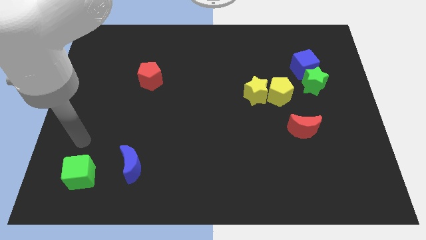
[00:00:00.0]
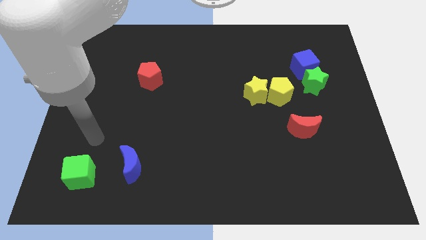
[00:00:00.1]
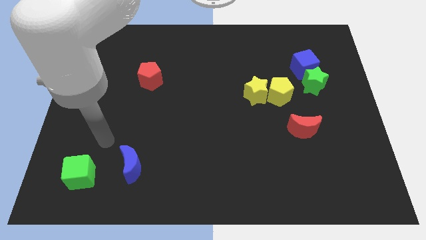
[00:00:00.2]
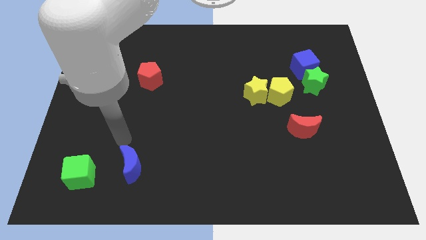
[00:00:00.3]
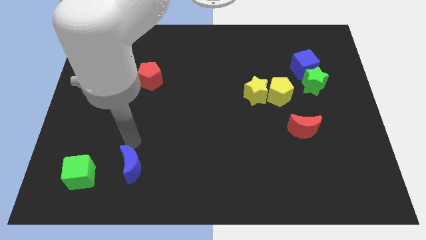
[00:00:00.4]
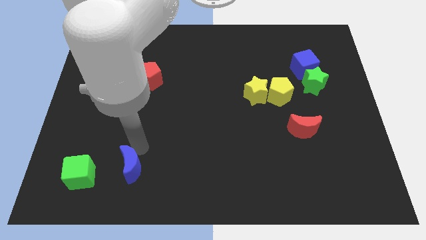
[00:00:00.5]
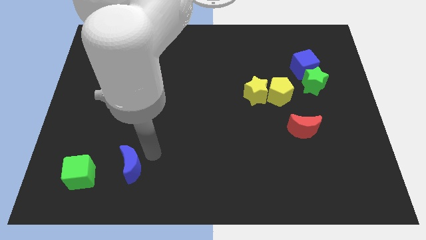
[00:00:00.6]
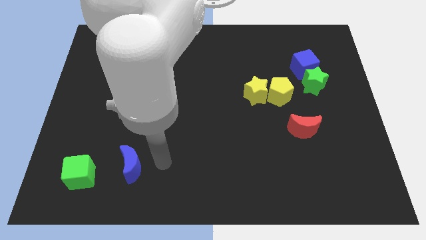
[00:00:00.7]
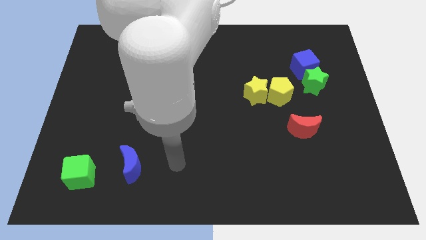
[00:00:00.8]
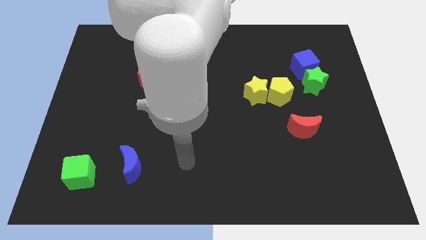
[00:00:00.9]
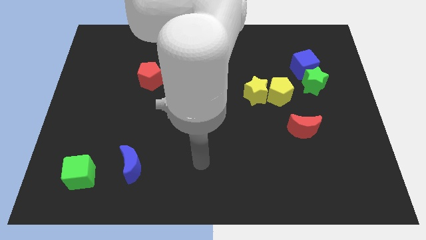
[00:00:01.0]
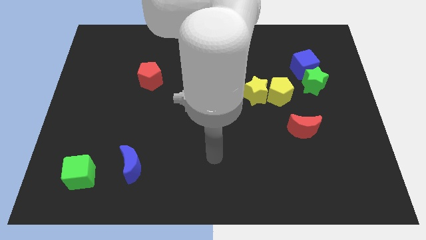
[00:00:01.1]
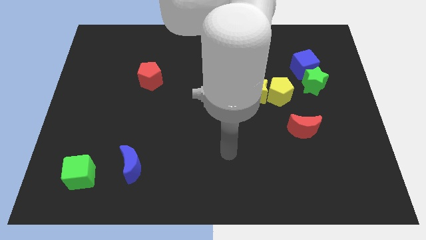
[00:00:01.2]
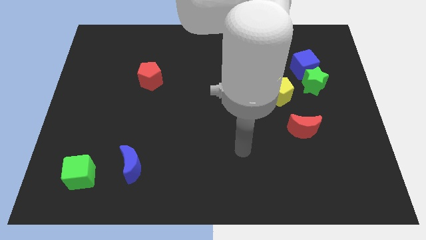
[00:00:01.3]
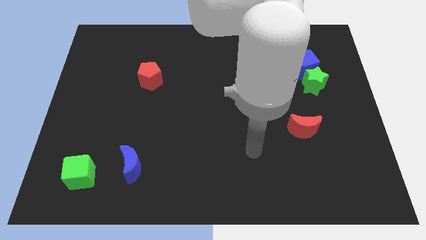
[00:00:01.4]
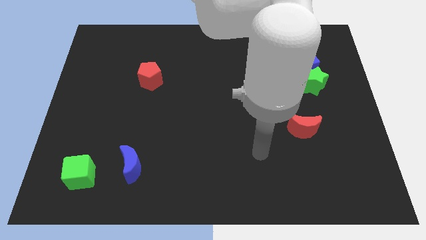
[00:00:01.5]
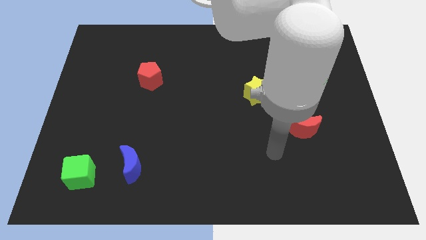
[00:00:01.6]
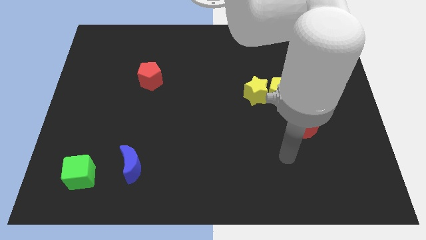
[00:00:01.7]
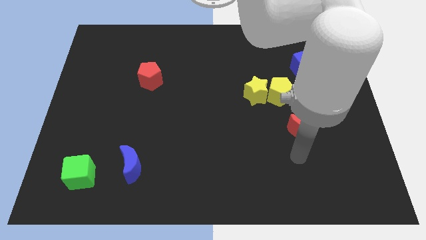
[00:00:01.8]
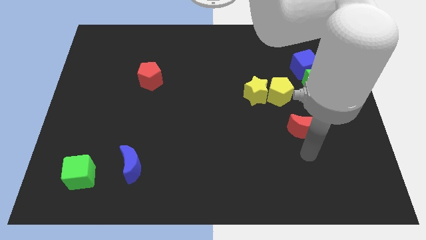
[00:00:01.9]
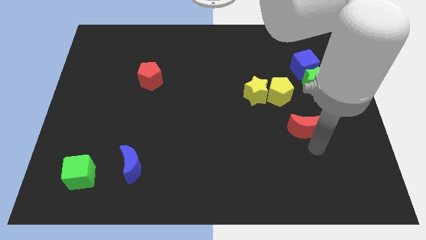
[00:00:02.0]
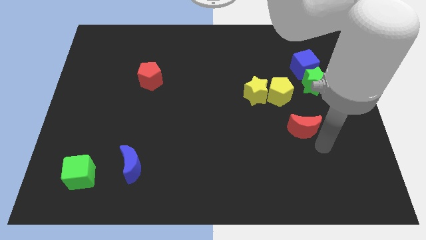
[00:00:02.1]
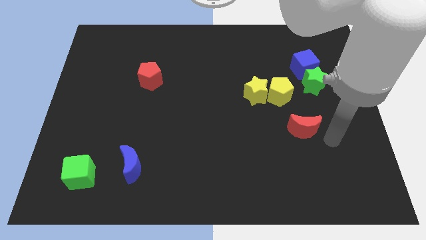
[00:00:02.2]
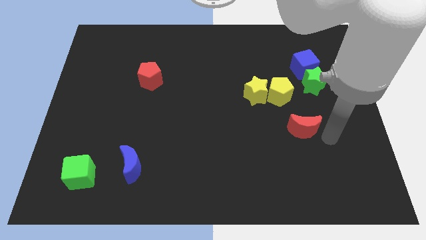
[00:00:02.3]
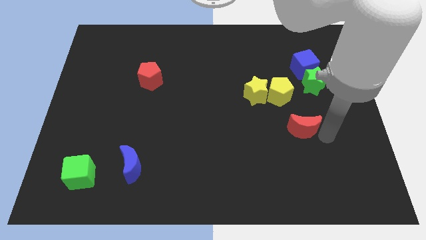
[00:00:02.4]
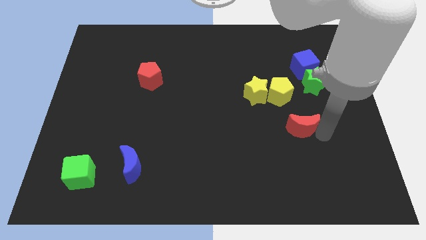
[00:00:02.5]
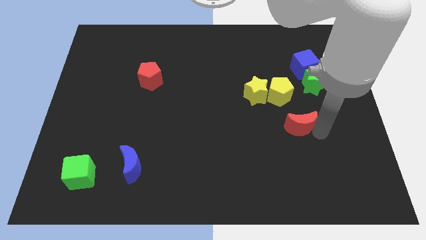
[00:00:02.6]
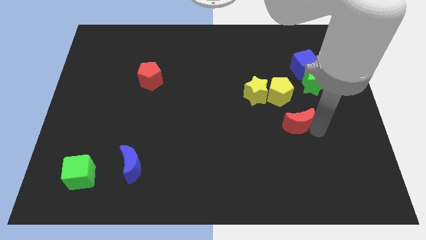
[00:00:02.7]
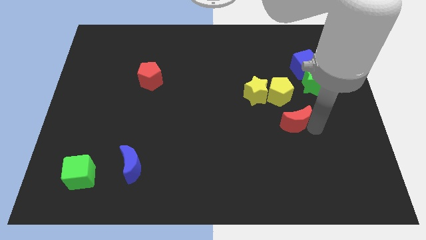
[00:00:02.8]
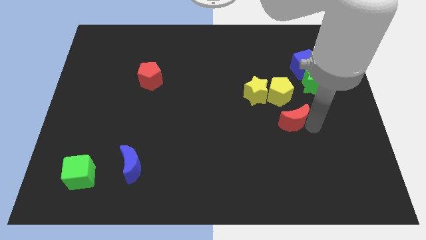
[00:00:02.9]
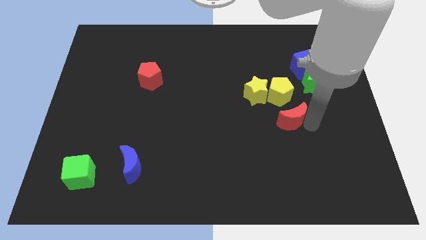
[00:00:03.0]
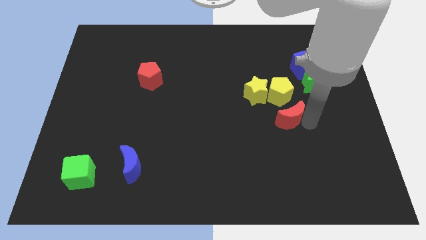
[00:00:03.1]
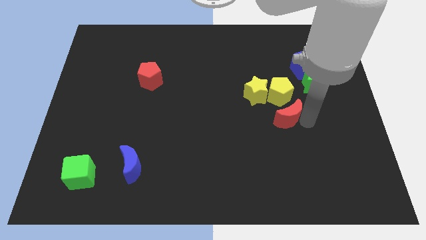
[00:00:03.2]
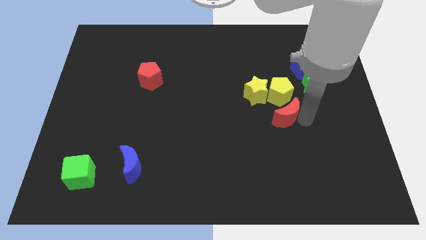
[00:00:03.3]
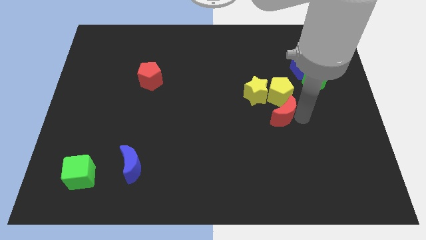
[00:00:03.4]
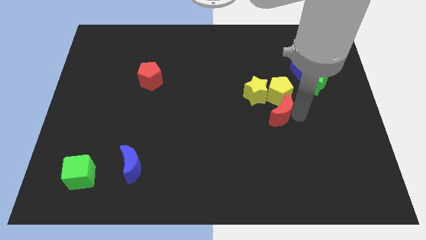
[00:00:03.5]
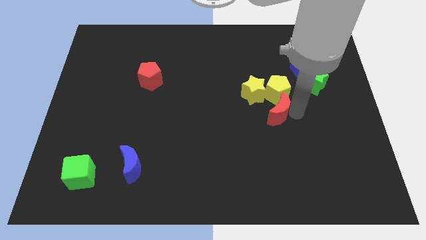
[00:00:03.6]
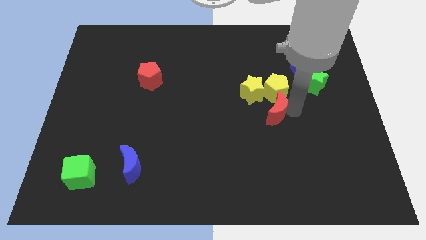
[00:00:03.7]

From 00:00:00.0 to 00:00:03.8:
move the red moon upwards and then left slightly

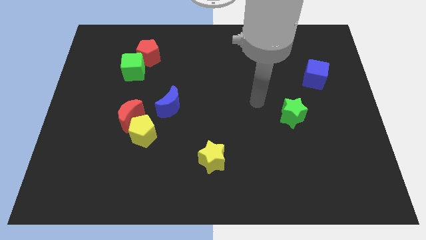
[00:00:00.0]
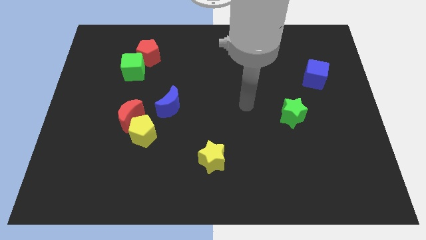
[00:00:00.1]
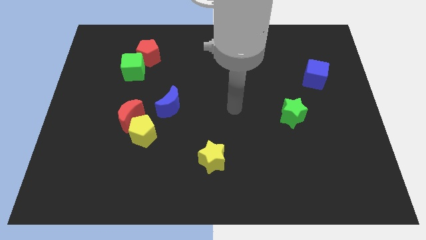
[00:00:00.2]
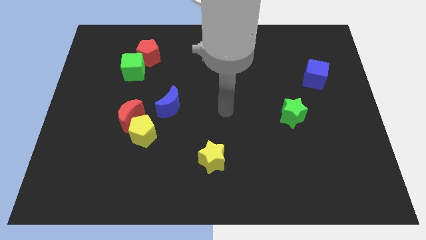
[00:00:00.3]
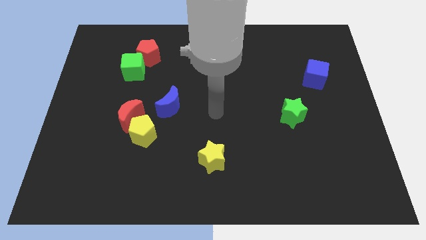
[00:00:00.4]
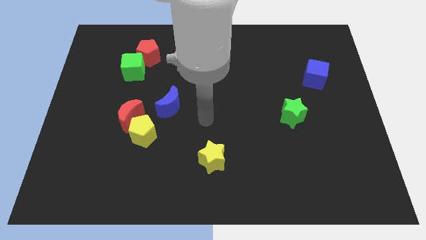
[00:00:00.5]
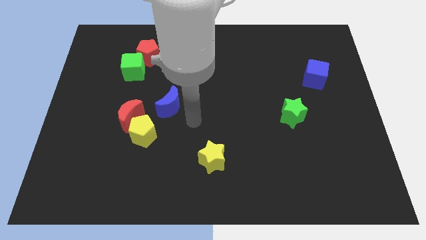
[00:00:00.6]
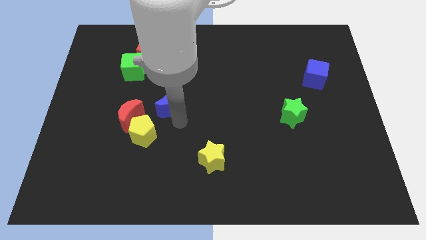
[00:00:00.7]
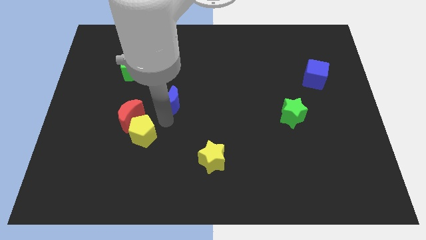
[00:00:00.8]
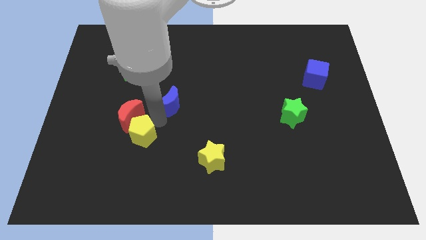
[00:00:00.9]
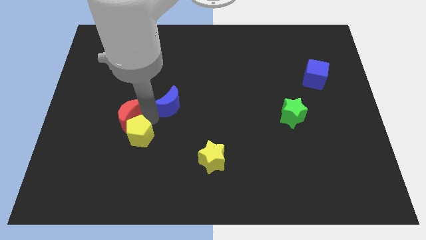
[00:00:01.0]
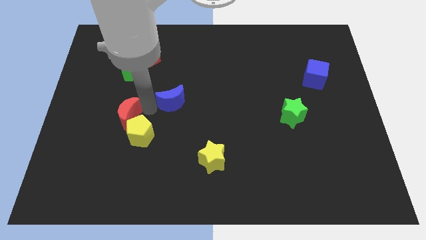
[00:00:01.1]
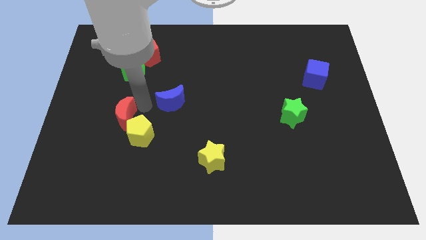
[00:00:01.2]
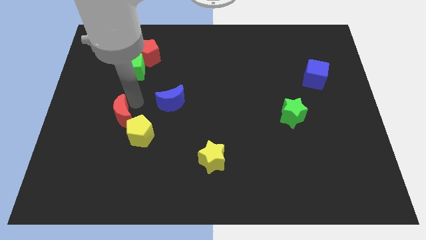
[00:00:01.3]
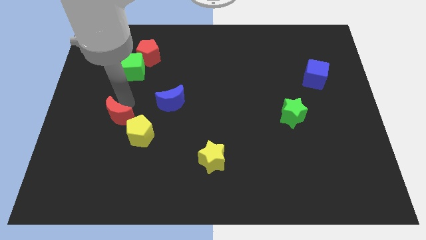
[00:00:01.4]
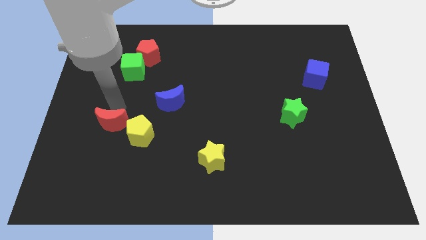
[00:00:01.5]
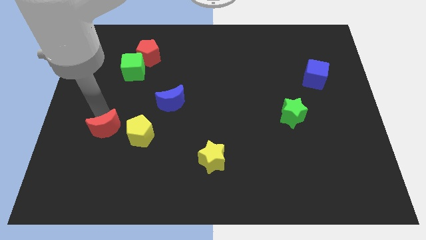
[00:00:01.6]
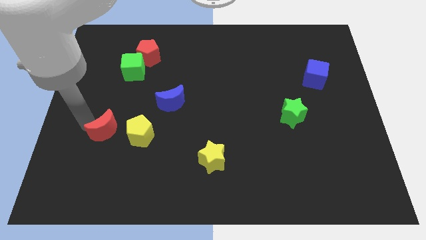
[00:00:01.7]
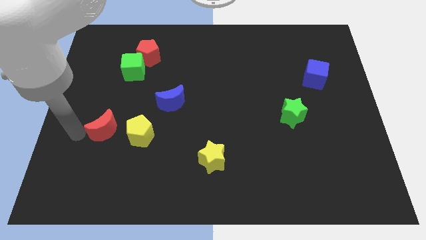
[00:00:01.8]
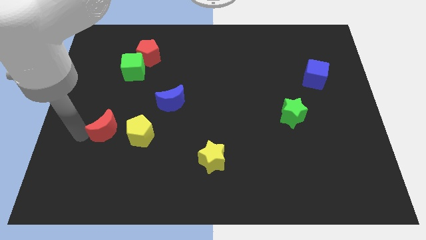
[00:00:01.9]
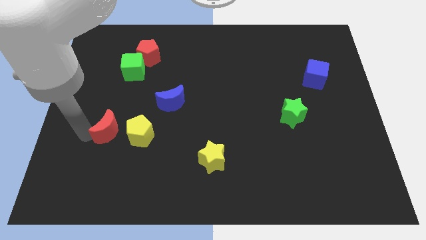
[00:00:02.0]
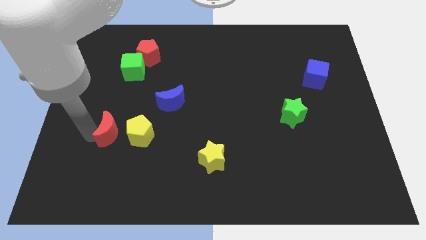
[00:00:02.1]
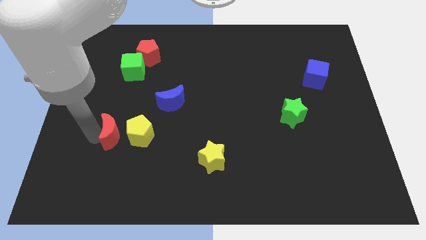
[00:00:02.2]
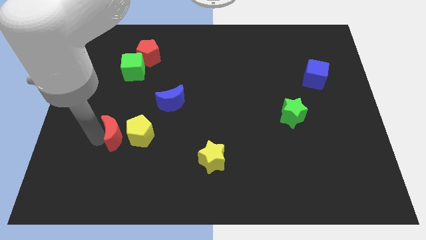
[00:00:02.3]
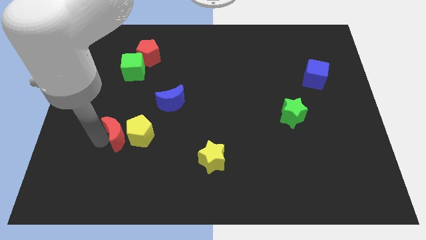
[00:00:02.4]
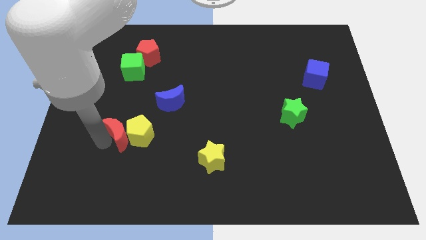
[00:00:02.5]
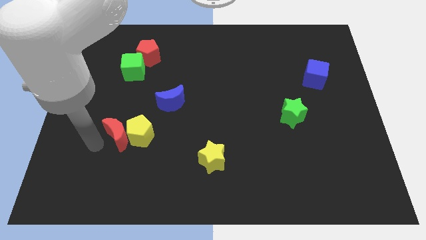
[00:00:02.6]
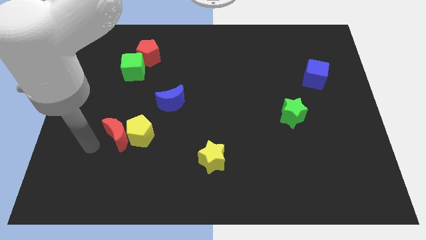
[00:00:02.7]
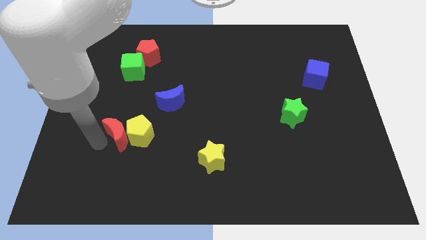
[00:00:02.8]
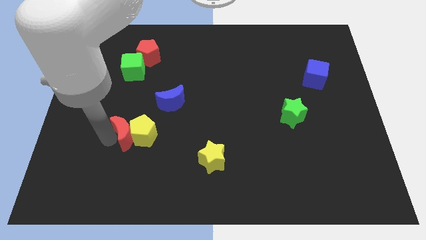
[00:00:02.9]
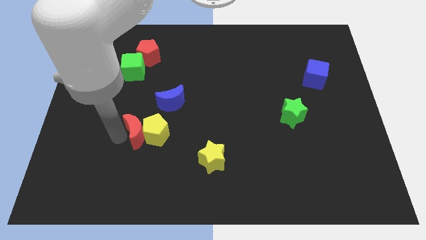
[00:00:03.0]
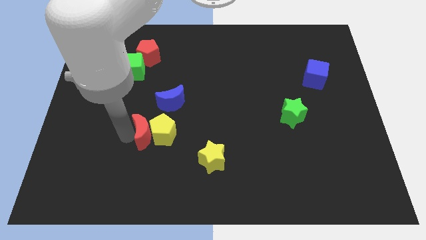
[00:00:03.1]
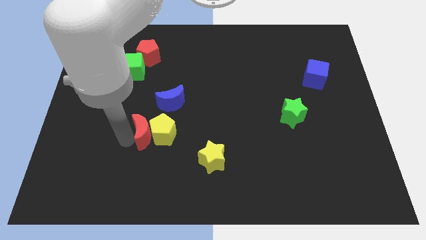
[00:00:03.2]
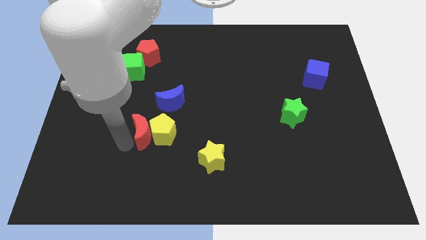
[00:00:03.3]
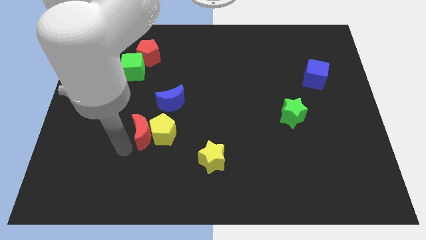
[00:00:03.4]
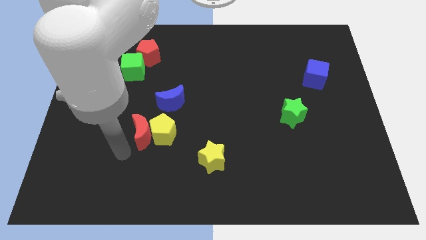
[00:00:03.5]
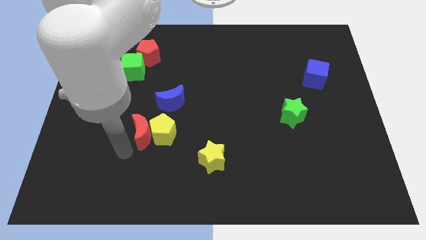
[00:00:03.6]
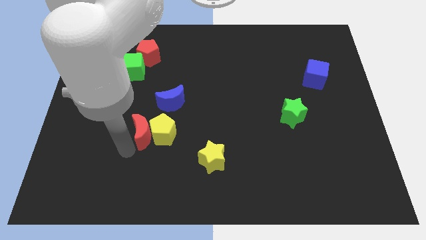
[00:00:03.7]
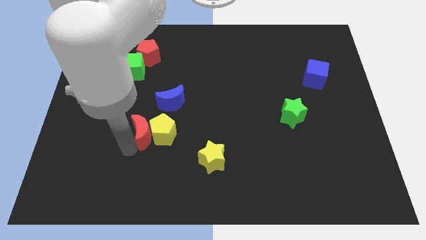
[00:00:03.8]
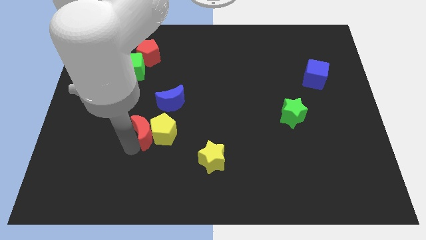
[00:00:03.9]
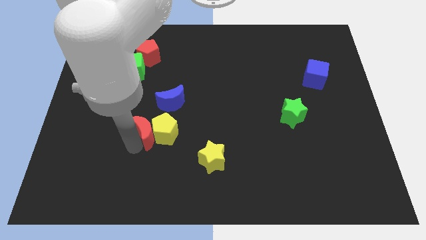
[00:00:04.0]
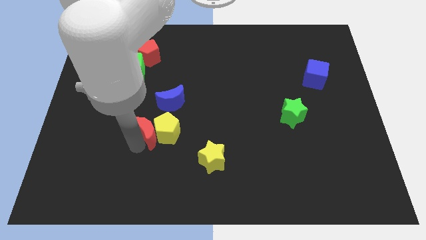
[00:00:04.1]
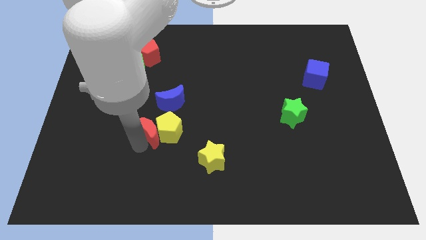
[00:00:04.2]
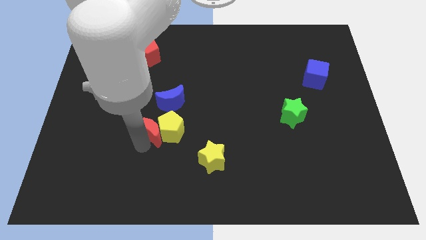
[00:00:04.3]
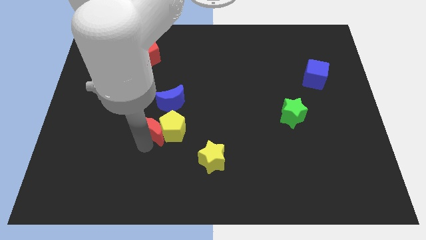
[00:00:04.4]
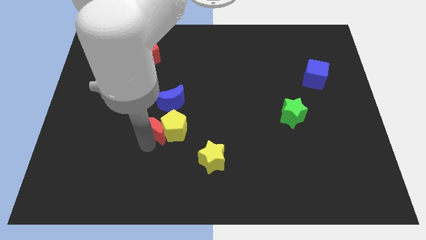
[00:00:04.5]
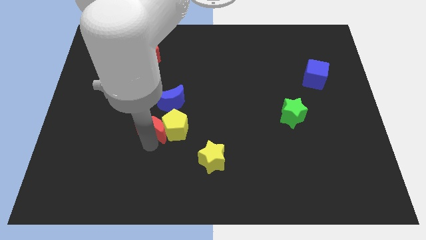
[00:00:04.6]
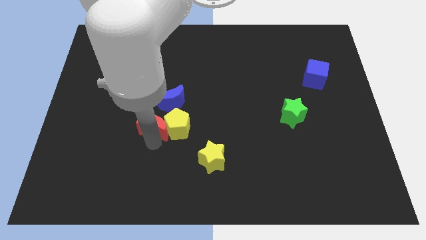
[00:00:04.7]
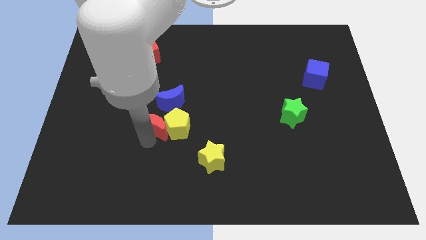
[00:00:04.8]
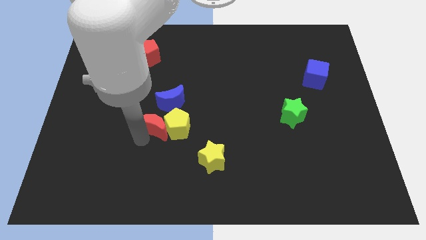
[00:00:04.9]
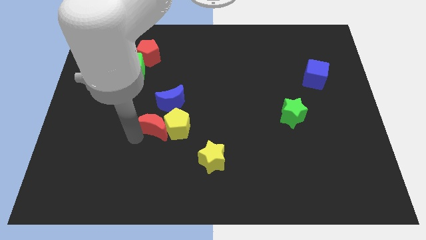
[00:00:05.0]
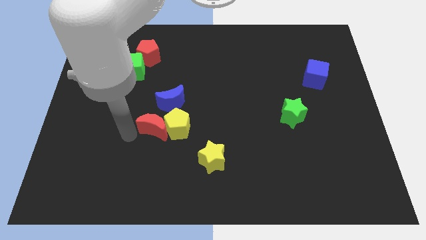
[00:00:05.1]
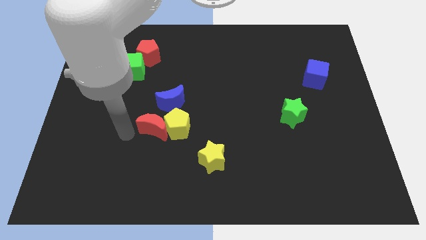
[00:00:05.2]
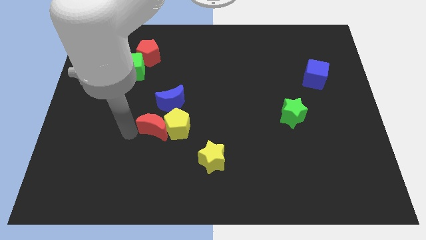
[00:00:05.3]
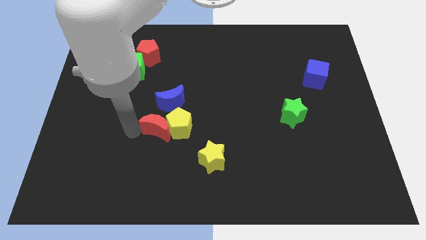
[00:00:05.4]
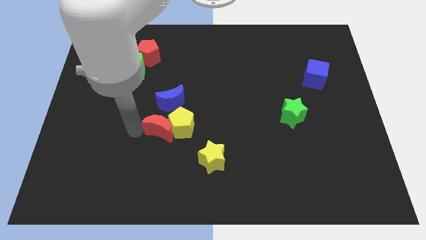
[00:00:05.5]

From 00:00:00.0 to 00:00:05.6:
push the red moon to the right a bit
